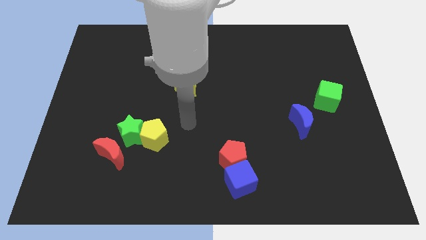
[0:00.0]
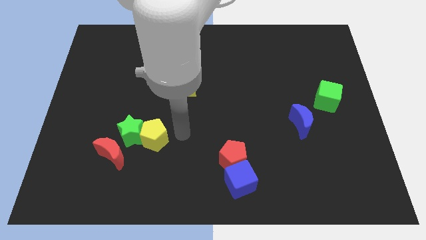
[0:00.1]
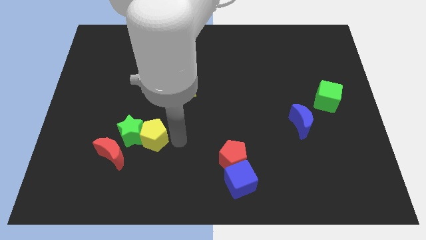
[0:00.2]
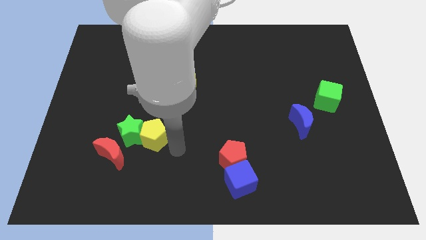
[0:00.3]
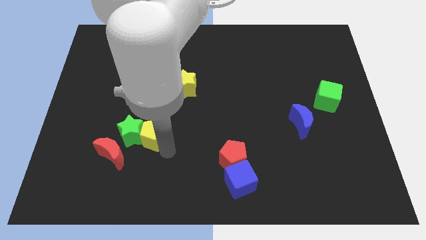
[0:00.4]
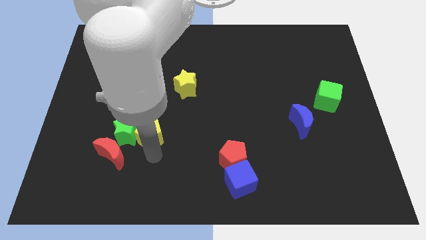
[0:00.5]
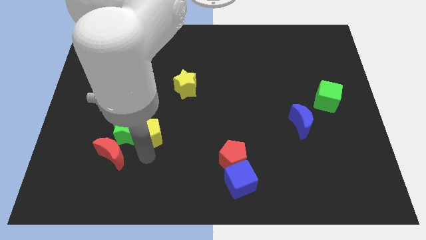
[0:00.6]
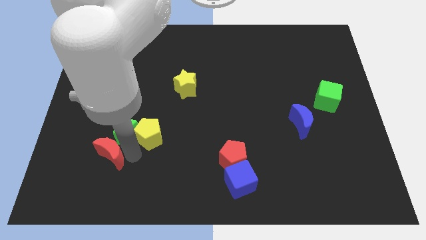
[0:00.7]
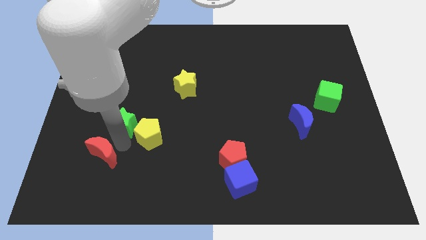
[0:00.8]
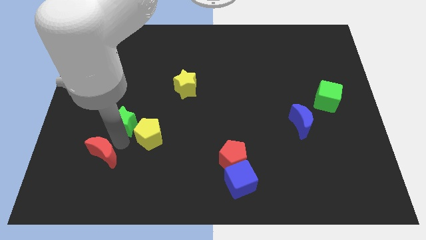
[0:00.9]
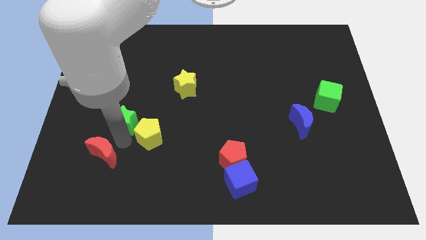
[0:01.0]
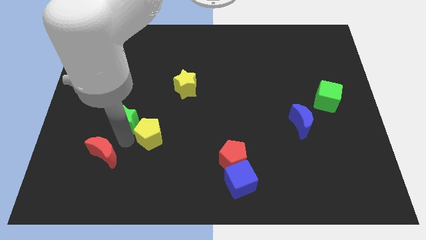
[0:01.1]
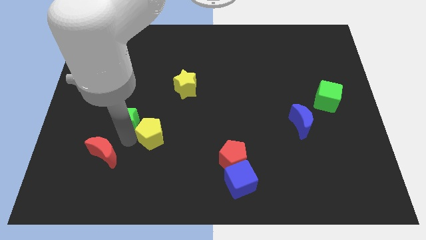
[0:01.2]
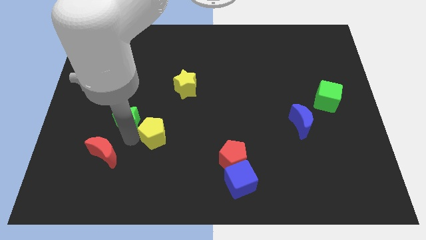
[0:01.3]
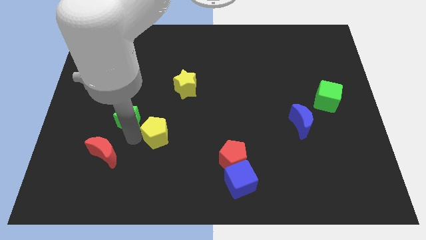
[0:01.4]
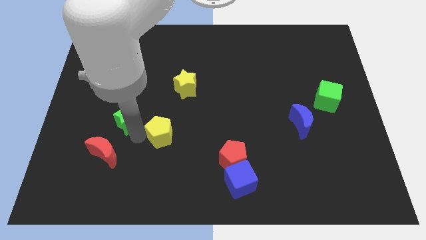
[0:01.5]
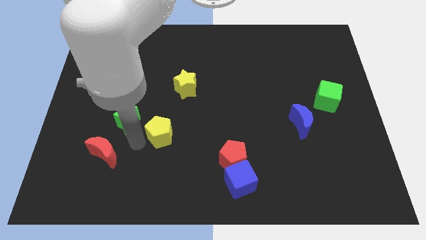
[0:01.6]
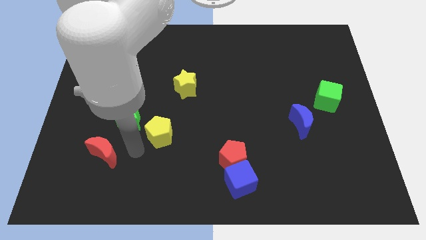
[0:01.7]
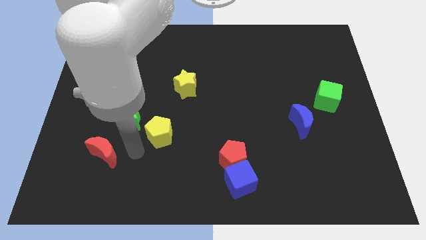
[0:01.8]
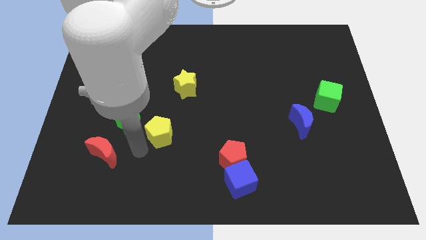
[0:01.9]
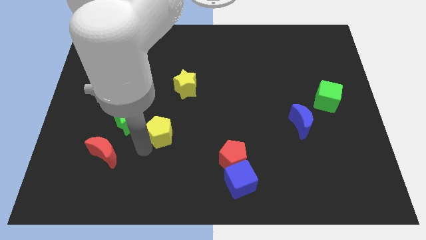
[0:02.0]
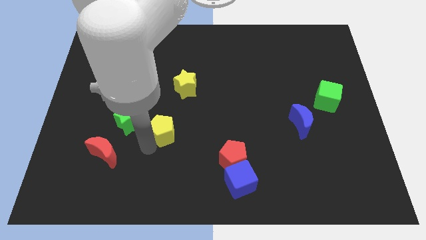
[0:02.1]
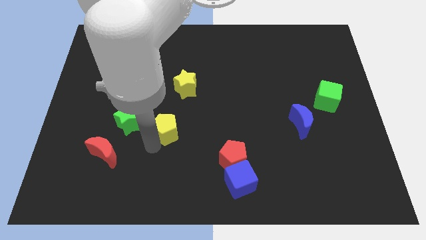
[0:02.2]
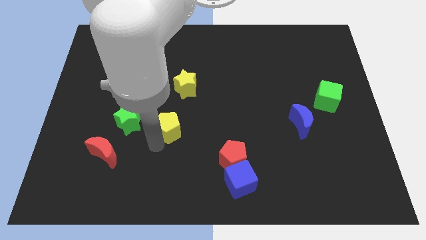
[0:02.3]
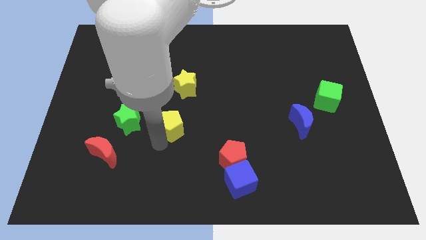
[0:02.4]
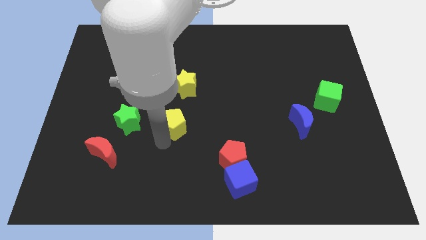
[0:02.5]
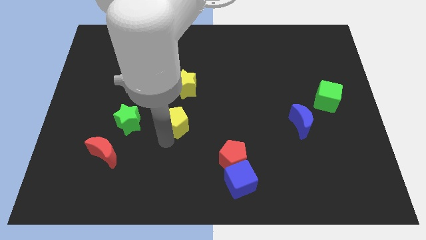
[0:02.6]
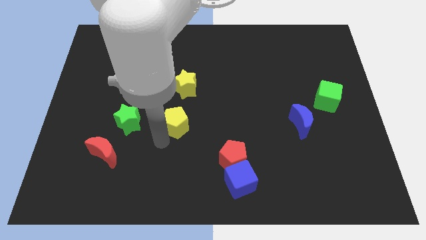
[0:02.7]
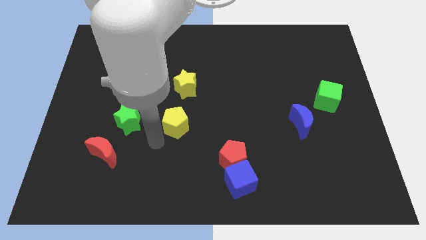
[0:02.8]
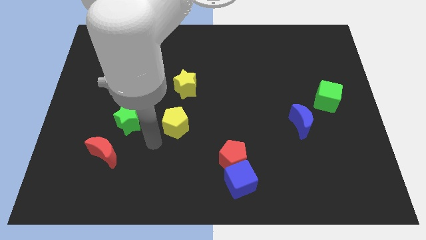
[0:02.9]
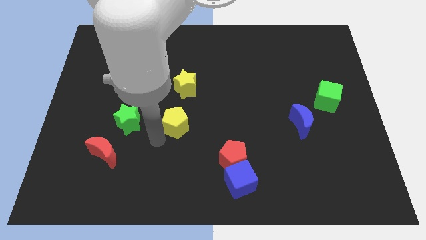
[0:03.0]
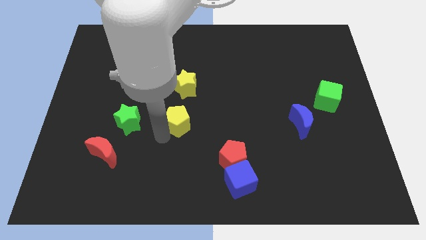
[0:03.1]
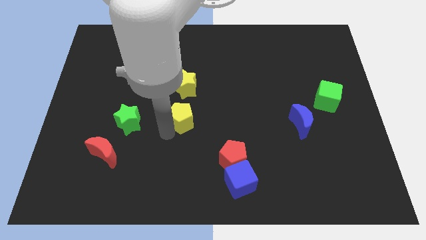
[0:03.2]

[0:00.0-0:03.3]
move the yellow pentagon a little upwards and right diagonally

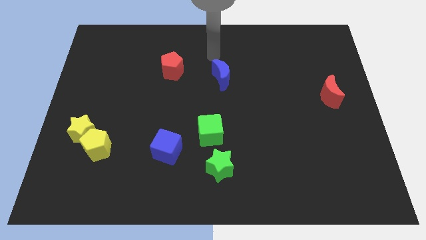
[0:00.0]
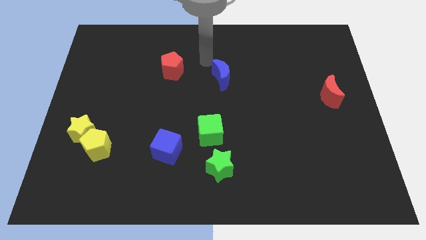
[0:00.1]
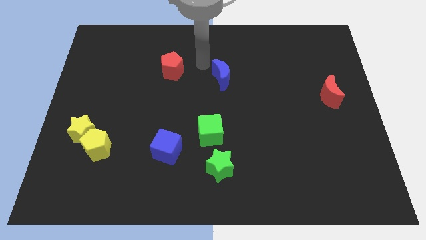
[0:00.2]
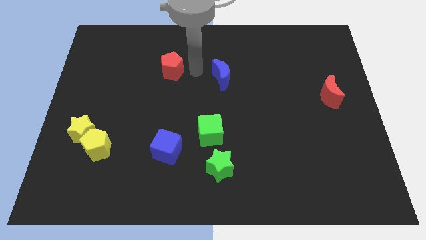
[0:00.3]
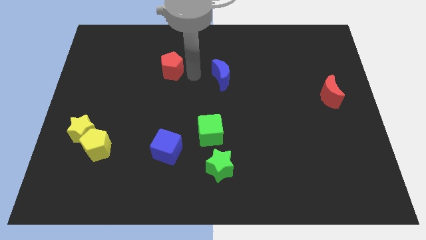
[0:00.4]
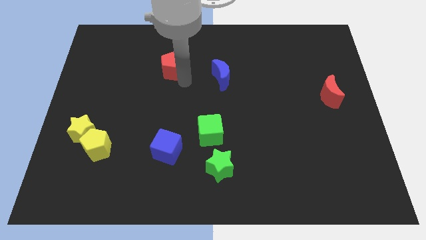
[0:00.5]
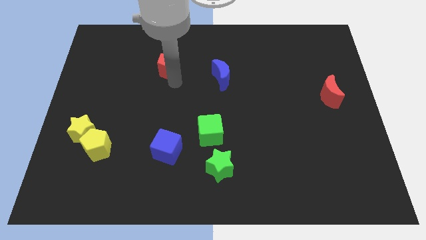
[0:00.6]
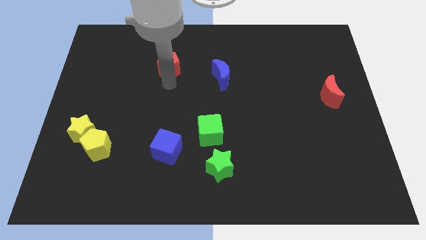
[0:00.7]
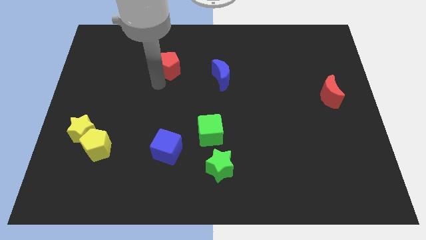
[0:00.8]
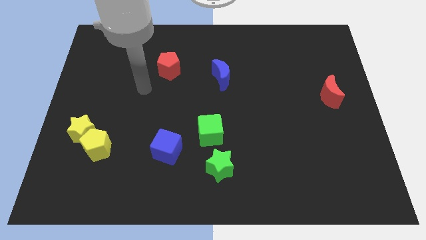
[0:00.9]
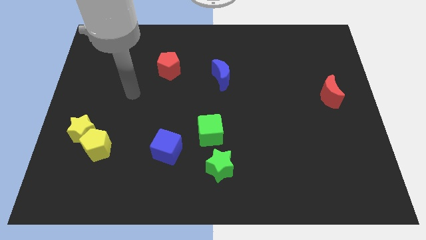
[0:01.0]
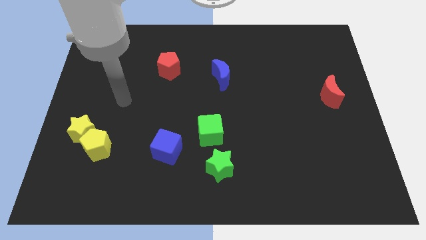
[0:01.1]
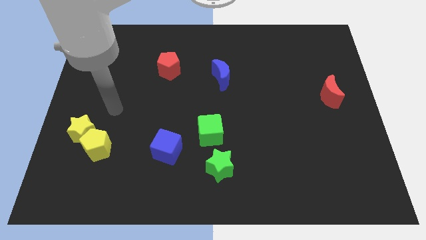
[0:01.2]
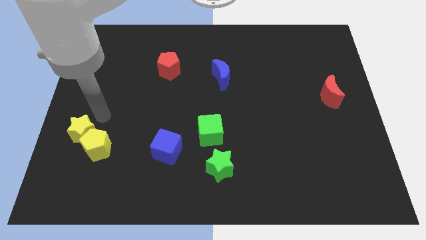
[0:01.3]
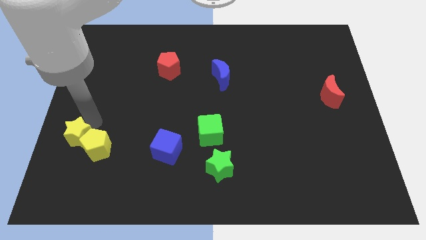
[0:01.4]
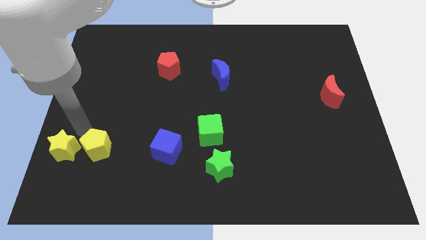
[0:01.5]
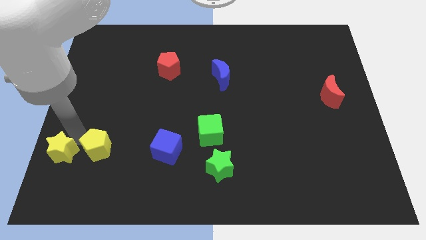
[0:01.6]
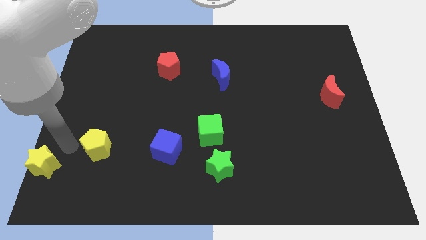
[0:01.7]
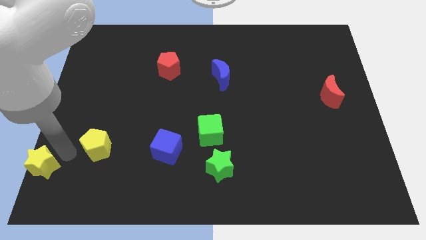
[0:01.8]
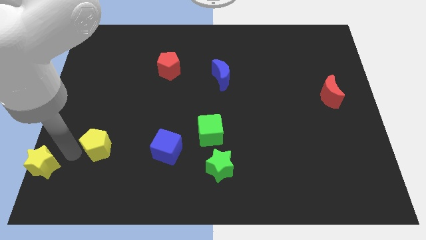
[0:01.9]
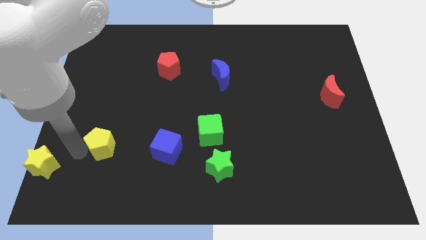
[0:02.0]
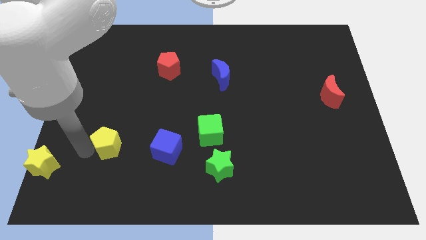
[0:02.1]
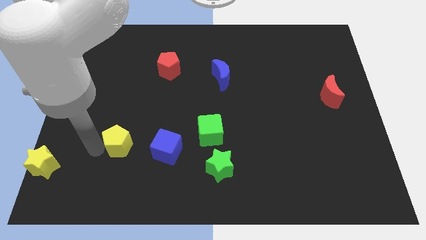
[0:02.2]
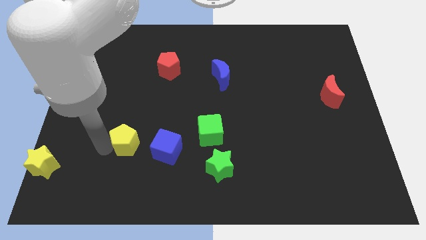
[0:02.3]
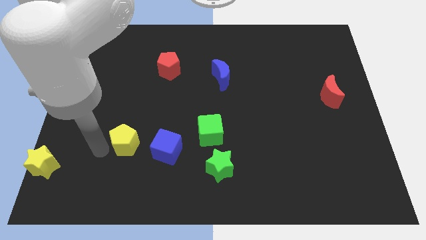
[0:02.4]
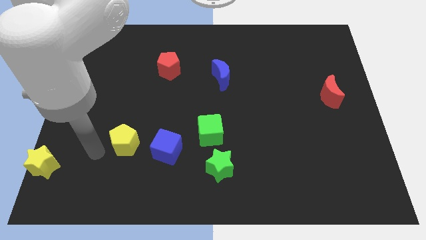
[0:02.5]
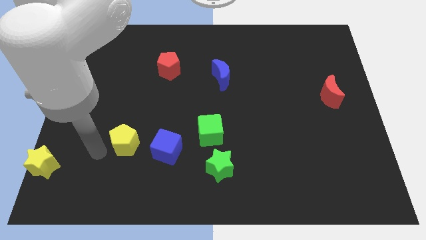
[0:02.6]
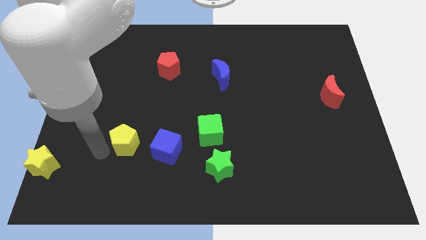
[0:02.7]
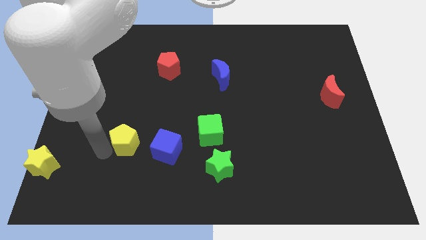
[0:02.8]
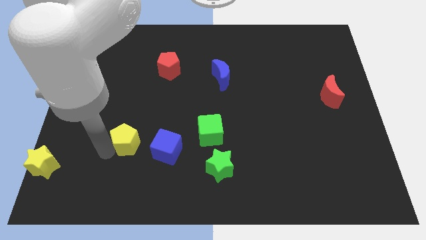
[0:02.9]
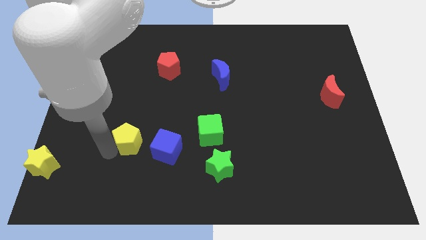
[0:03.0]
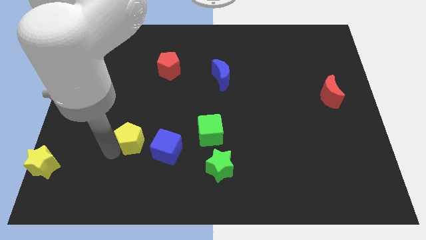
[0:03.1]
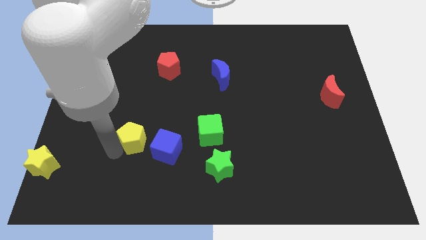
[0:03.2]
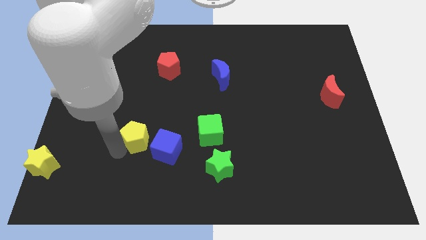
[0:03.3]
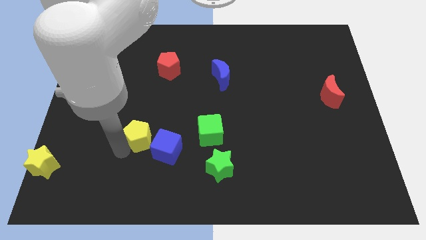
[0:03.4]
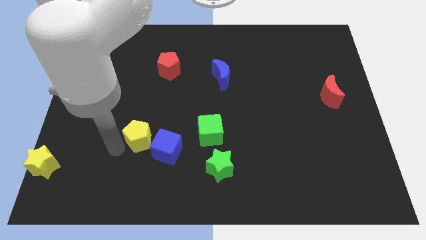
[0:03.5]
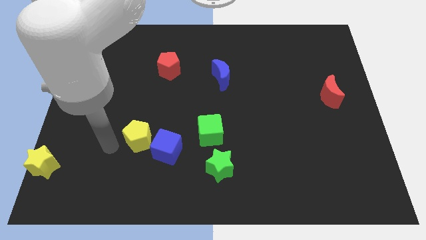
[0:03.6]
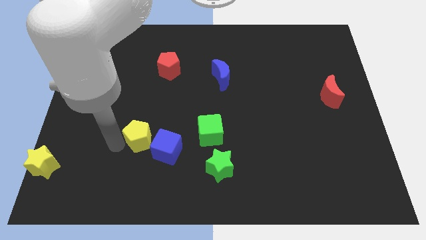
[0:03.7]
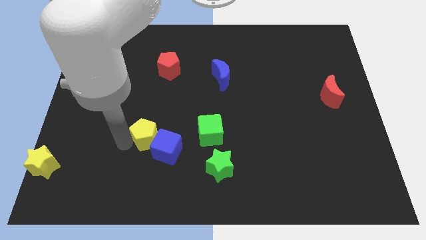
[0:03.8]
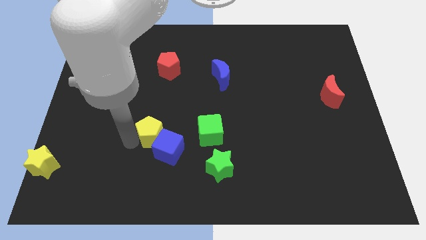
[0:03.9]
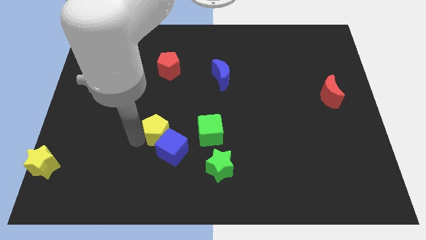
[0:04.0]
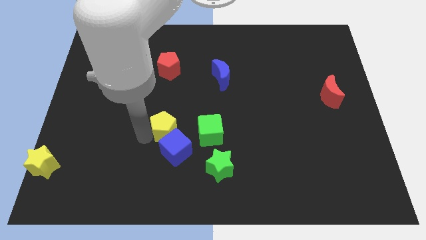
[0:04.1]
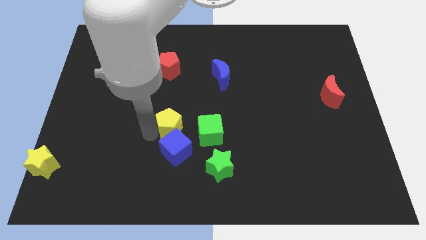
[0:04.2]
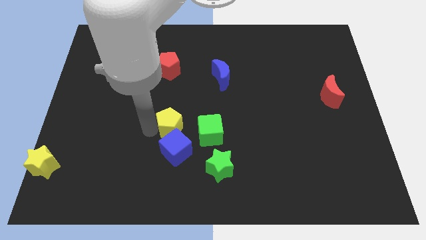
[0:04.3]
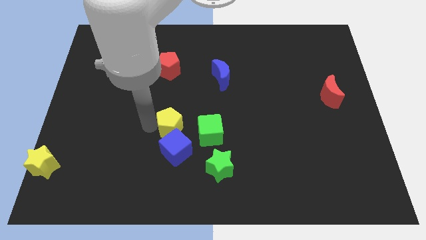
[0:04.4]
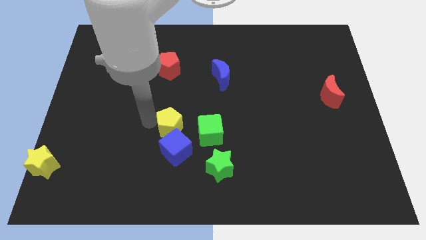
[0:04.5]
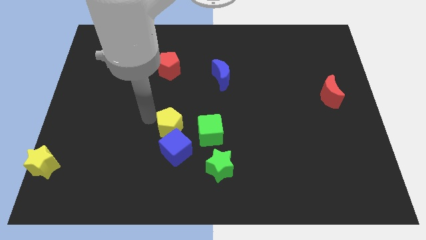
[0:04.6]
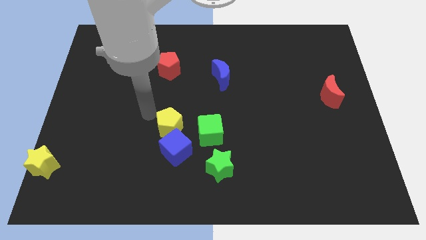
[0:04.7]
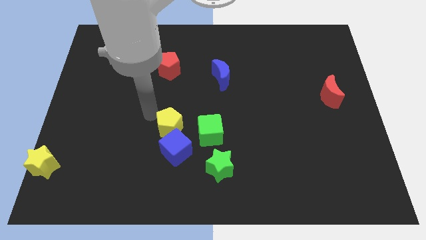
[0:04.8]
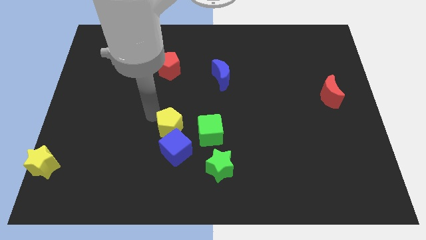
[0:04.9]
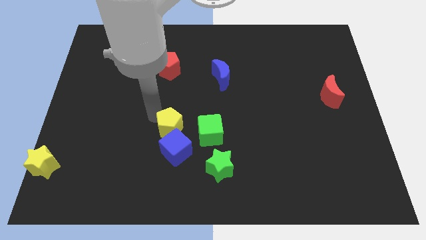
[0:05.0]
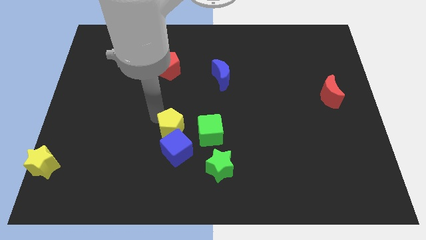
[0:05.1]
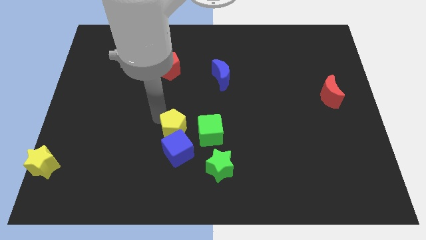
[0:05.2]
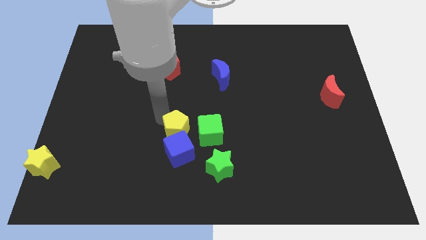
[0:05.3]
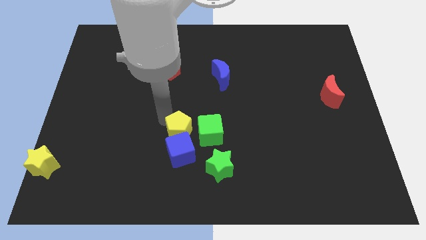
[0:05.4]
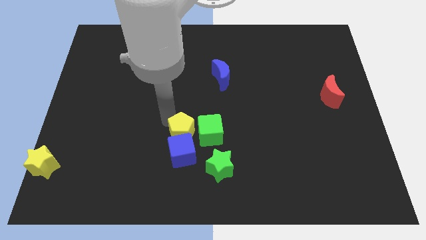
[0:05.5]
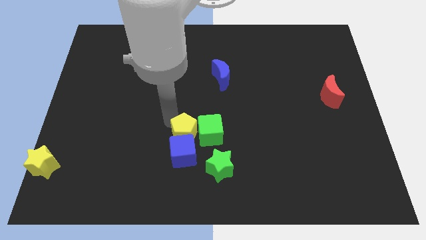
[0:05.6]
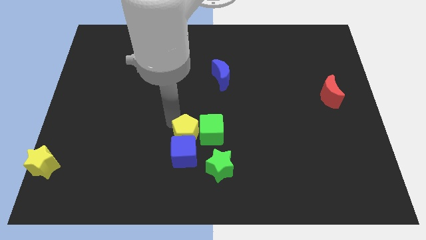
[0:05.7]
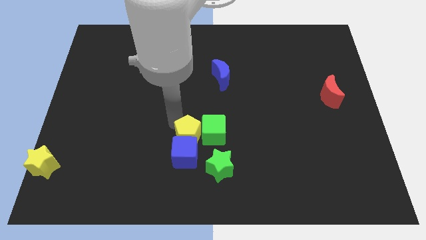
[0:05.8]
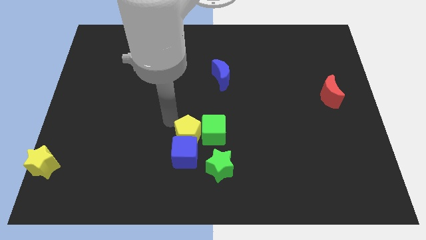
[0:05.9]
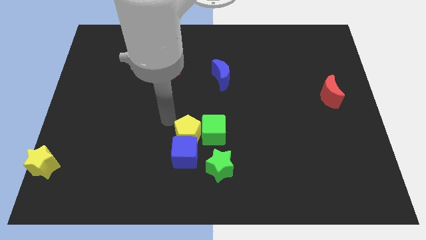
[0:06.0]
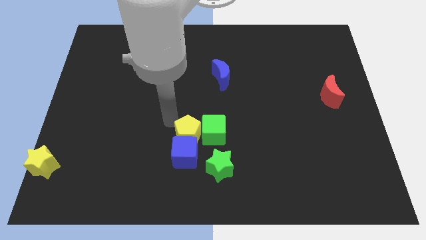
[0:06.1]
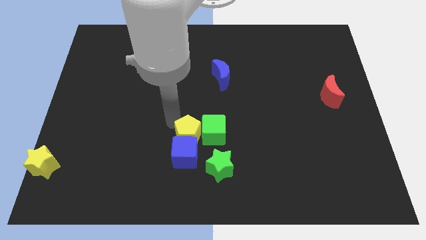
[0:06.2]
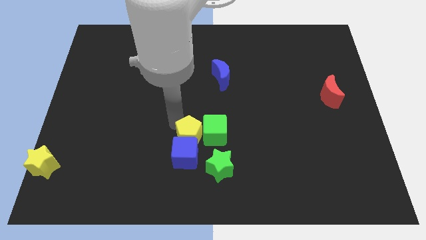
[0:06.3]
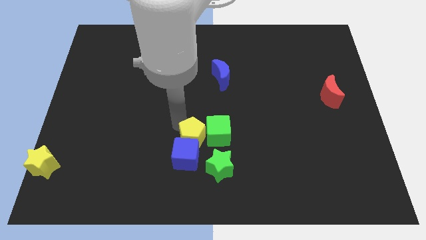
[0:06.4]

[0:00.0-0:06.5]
slide the yellow pentagon right
